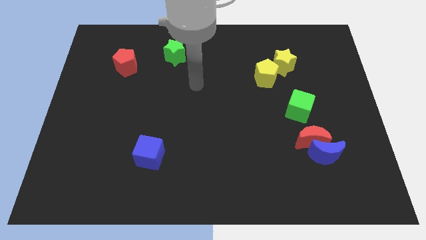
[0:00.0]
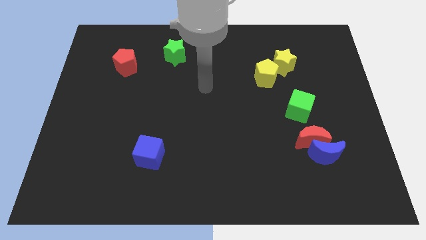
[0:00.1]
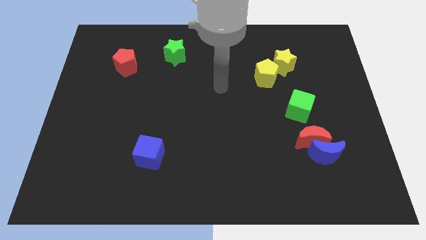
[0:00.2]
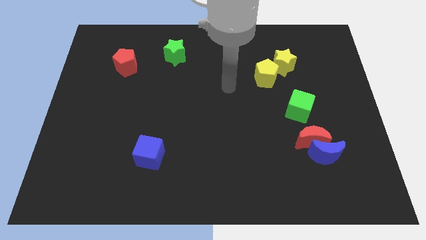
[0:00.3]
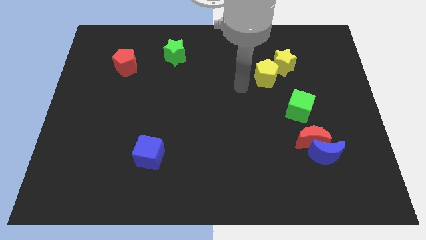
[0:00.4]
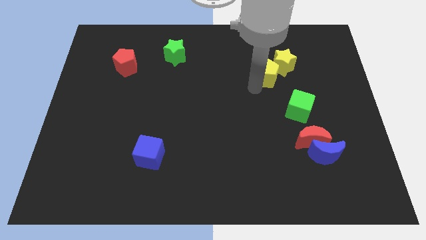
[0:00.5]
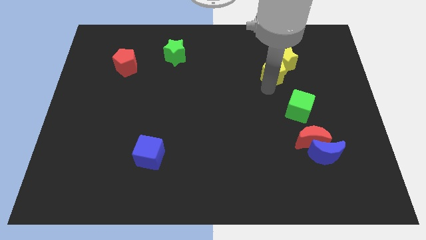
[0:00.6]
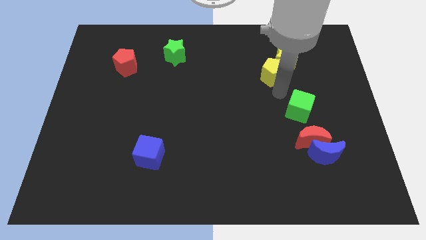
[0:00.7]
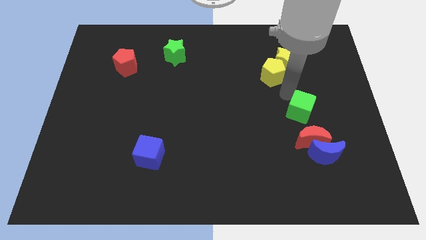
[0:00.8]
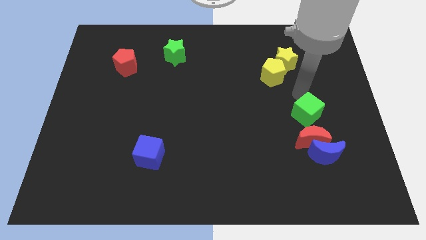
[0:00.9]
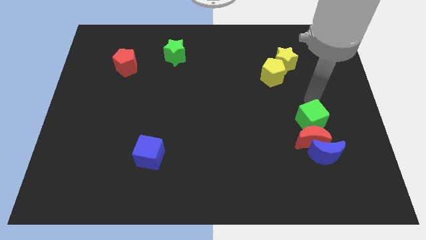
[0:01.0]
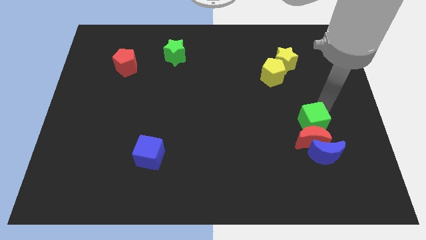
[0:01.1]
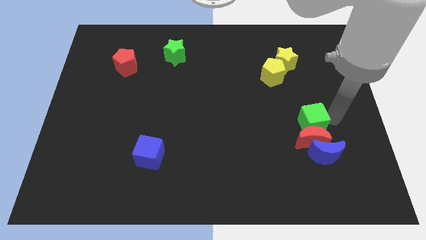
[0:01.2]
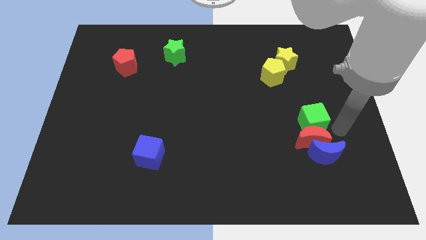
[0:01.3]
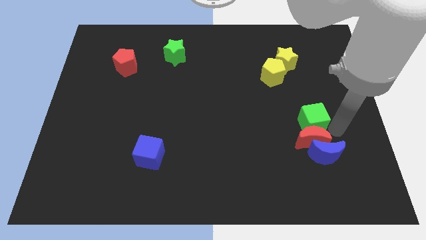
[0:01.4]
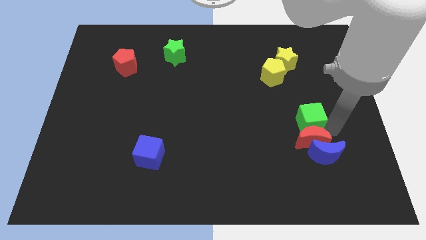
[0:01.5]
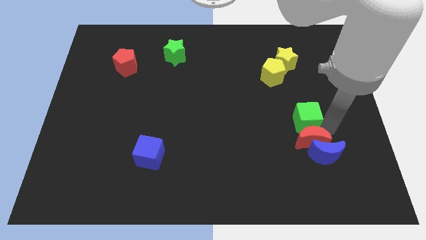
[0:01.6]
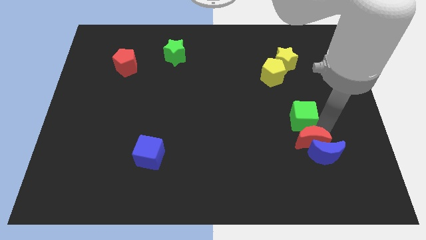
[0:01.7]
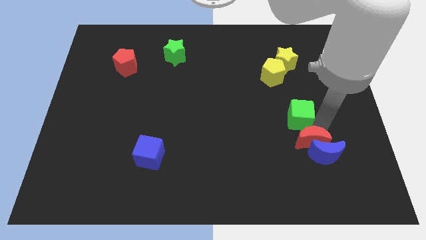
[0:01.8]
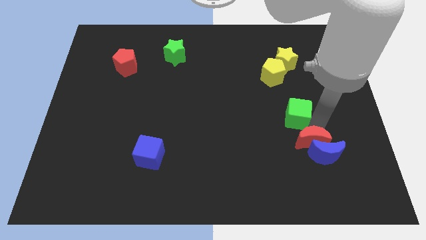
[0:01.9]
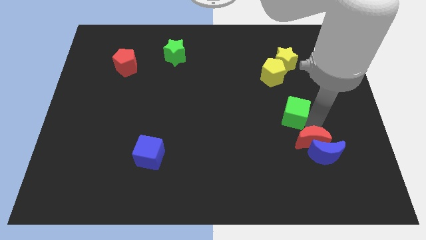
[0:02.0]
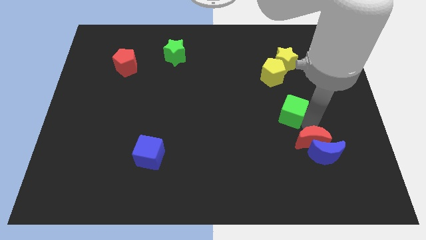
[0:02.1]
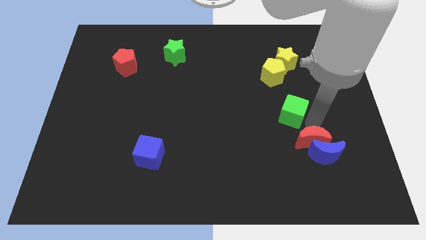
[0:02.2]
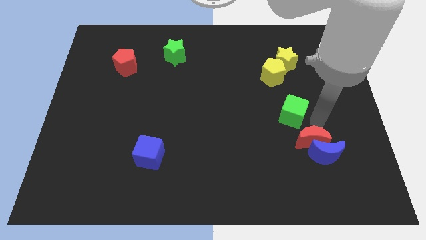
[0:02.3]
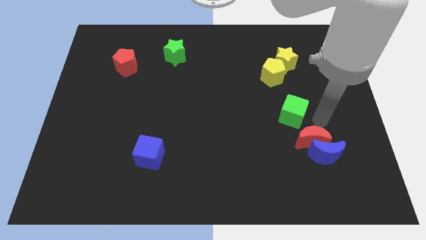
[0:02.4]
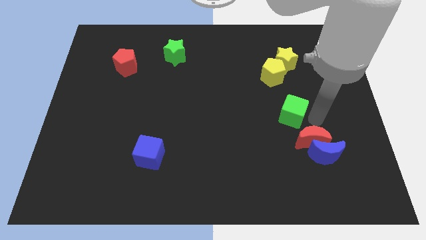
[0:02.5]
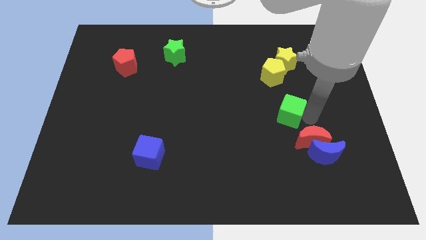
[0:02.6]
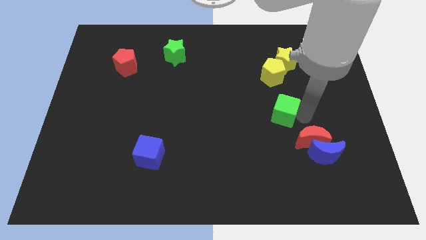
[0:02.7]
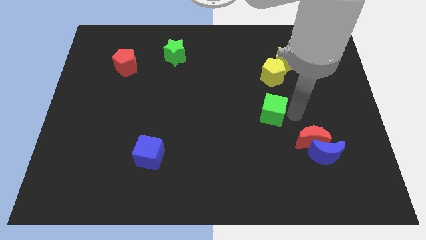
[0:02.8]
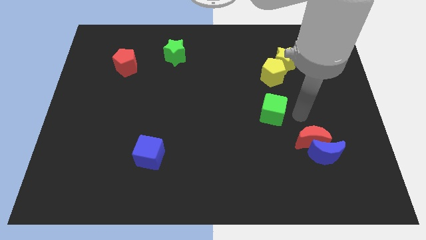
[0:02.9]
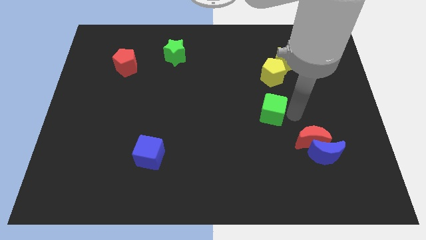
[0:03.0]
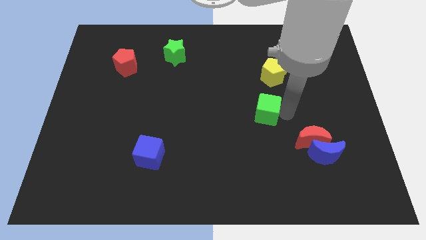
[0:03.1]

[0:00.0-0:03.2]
push the green cube a little bit to the left

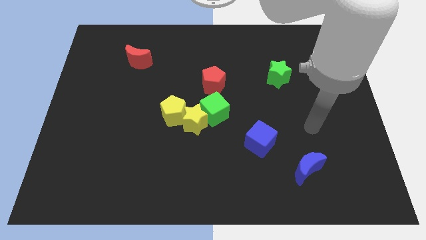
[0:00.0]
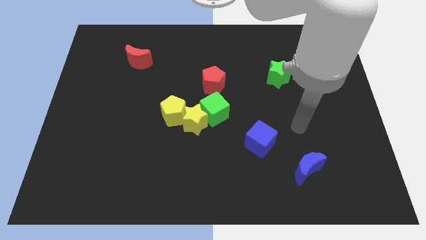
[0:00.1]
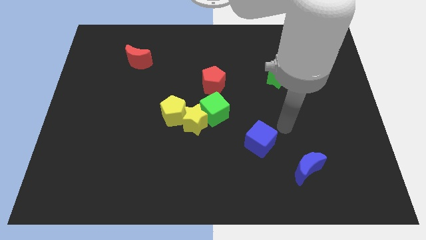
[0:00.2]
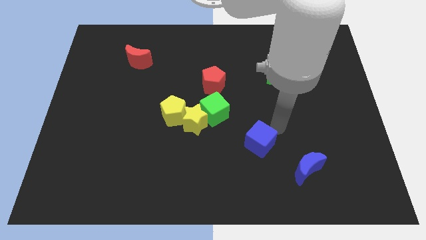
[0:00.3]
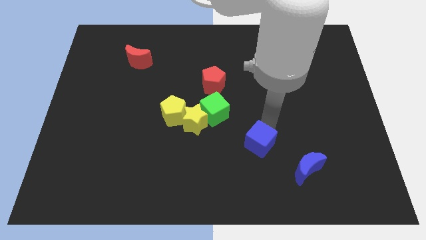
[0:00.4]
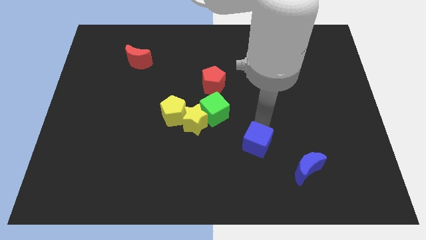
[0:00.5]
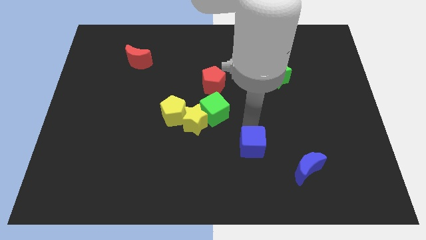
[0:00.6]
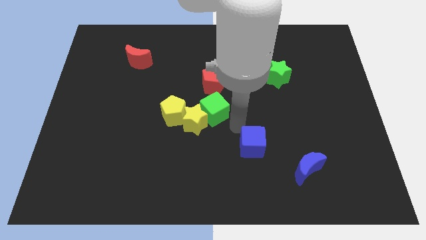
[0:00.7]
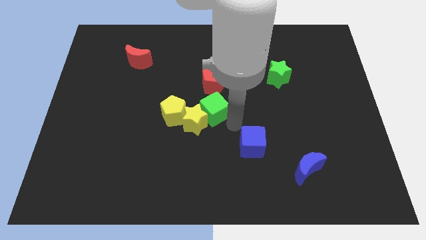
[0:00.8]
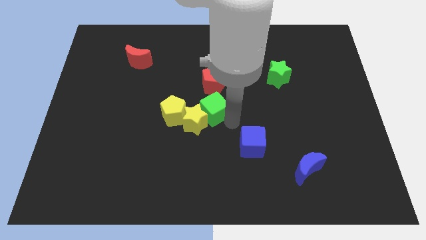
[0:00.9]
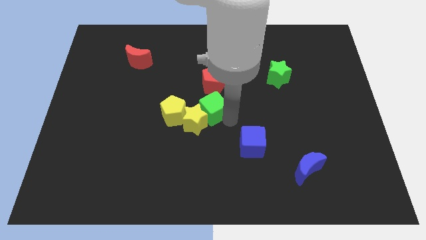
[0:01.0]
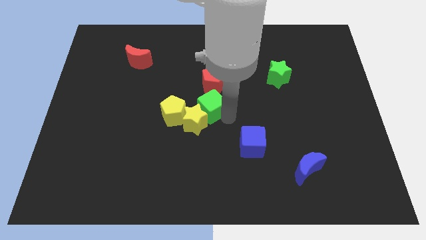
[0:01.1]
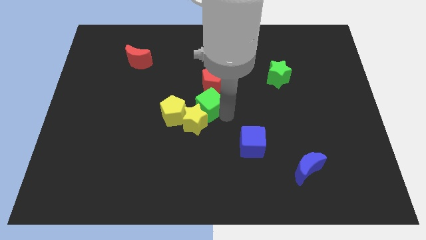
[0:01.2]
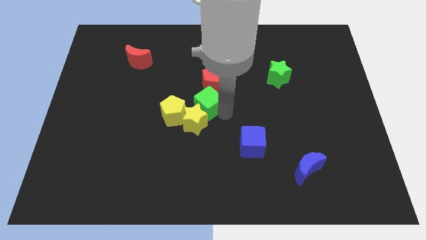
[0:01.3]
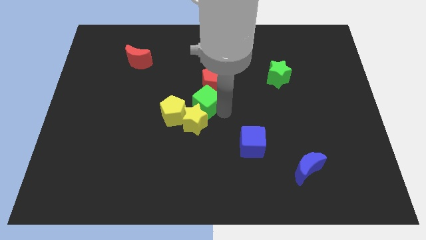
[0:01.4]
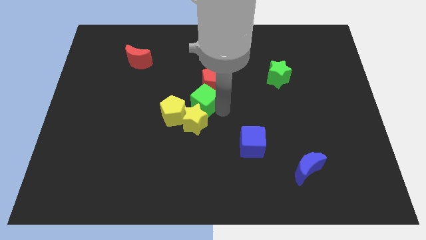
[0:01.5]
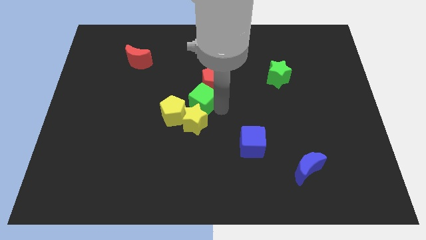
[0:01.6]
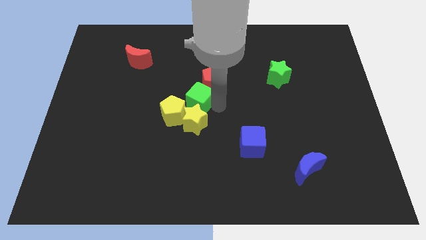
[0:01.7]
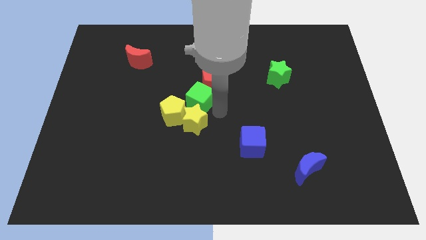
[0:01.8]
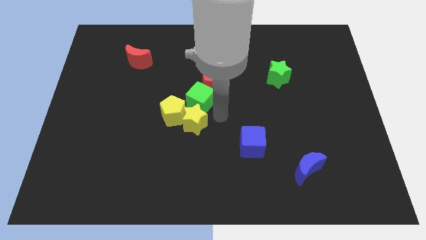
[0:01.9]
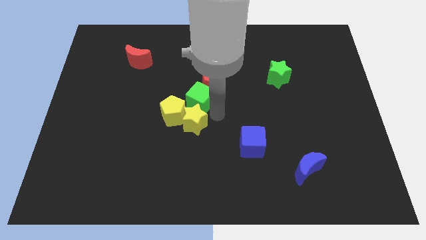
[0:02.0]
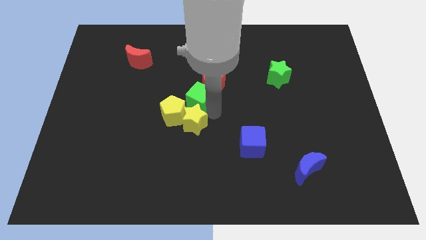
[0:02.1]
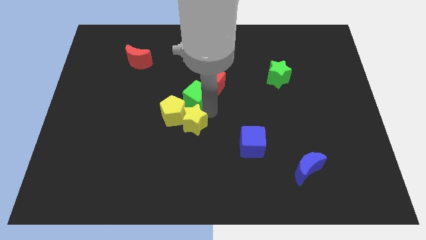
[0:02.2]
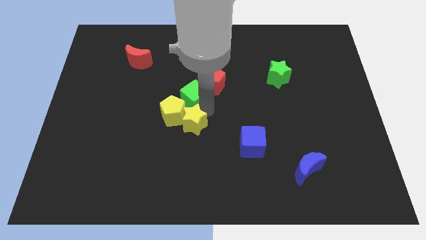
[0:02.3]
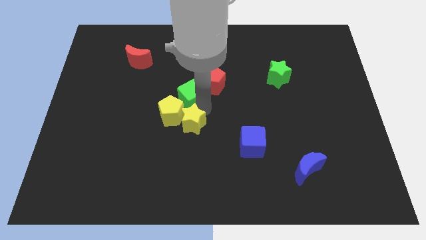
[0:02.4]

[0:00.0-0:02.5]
move the green cube a little diagonally upwards and to the left

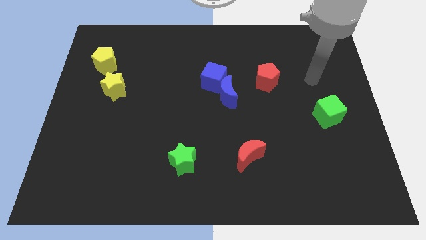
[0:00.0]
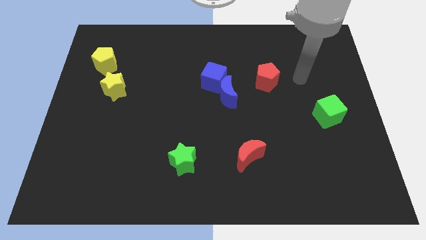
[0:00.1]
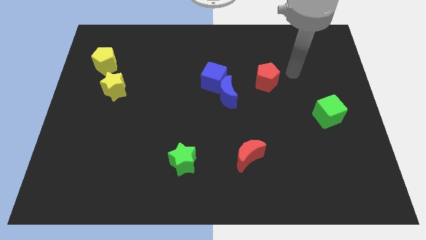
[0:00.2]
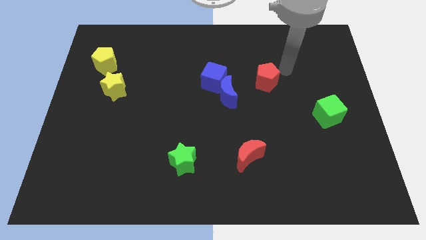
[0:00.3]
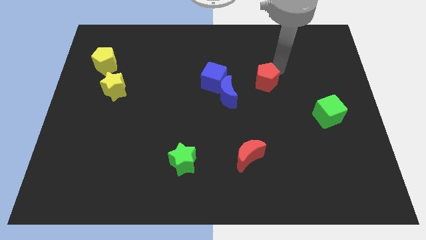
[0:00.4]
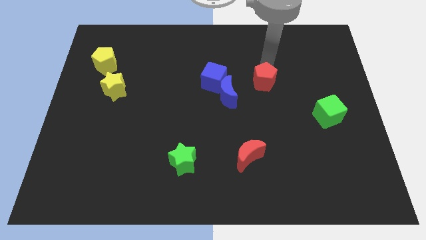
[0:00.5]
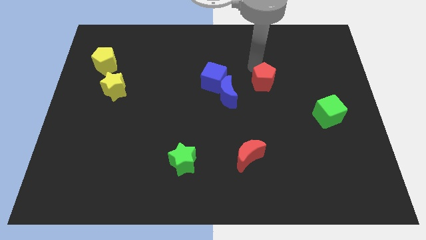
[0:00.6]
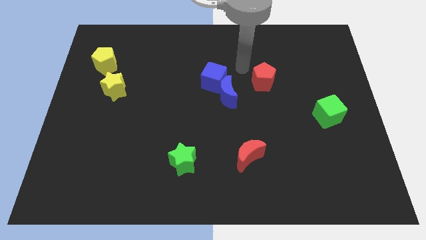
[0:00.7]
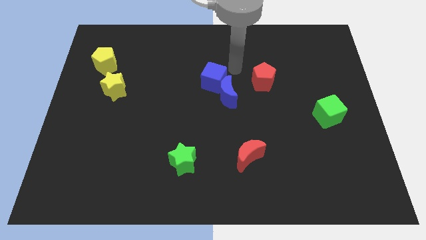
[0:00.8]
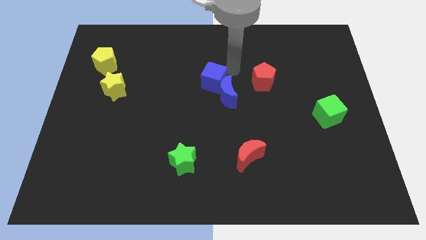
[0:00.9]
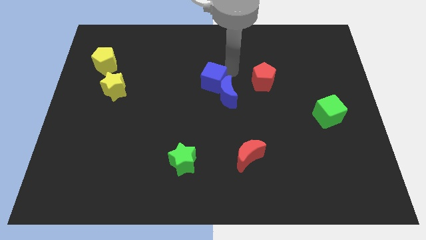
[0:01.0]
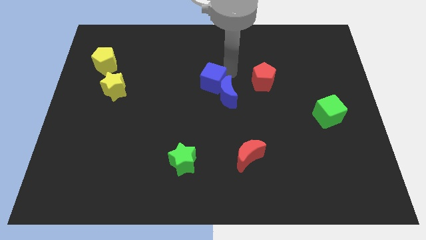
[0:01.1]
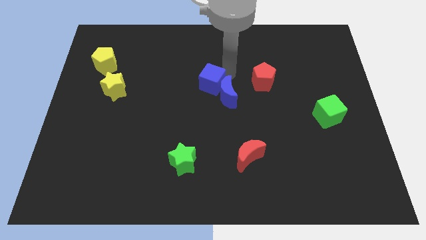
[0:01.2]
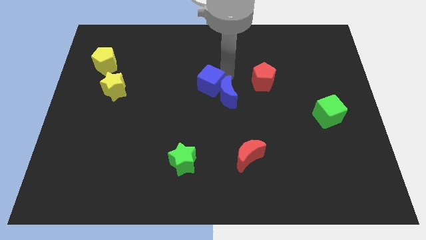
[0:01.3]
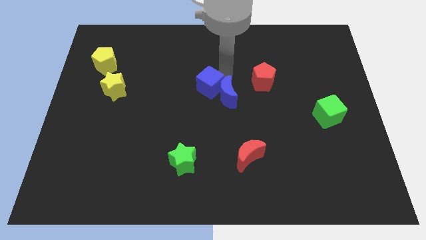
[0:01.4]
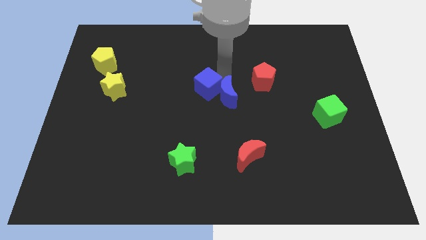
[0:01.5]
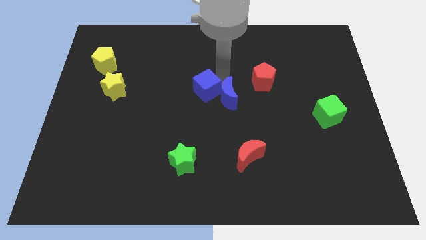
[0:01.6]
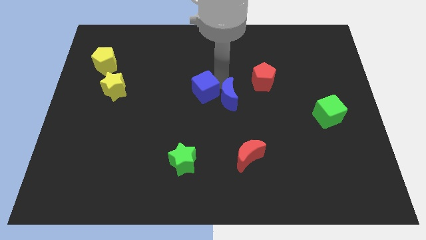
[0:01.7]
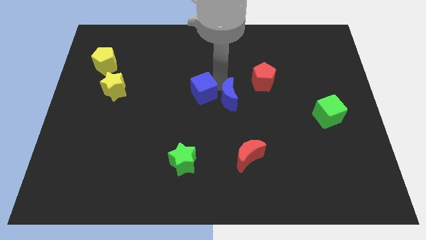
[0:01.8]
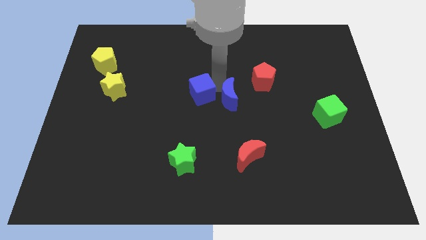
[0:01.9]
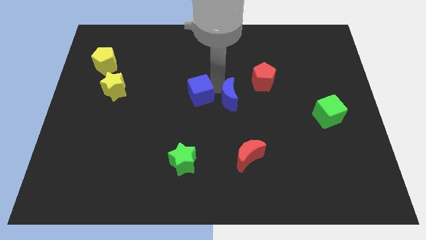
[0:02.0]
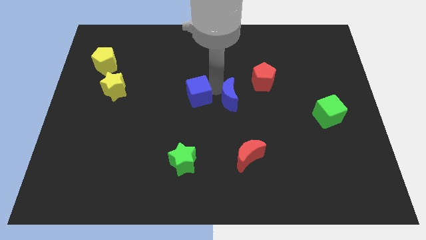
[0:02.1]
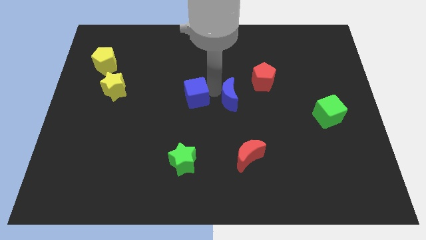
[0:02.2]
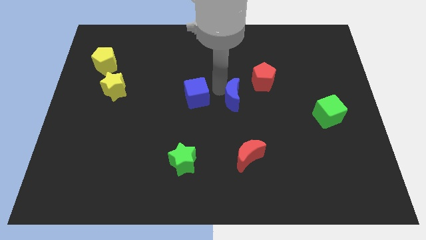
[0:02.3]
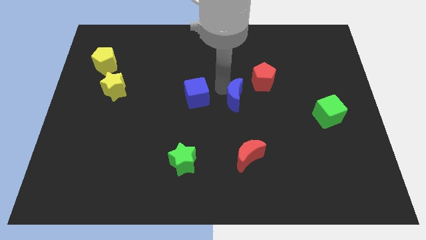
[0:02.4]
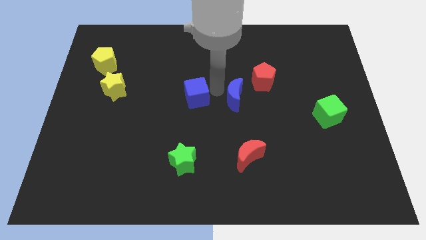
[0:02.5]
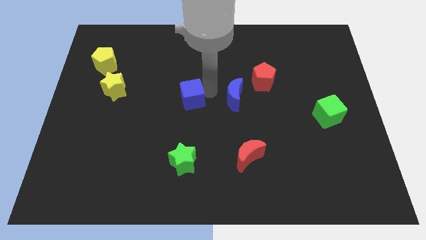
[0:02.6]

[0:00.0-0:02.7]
slide the blue cube a bit downwards and left diagonally
